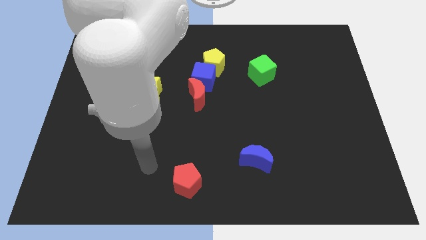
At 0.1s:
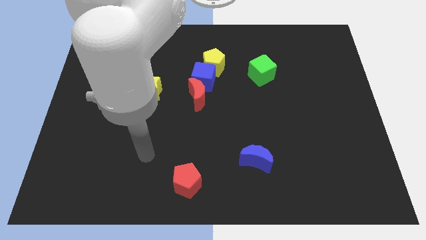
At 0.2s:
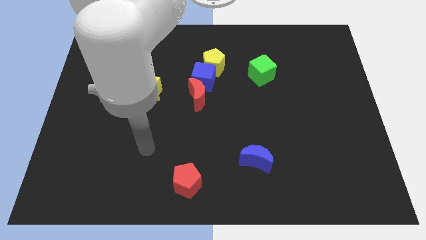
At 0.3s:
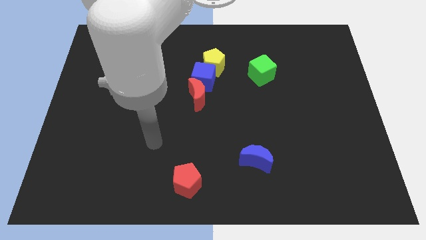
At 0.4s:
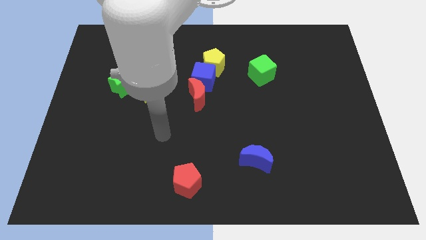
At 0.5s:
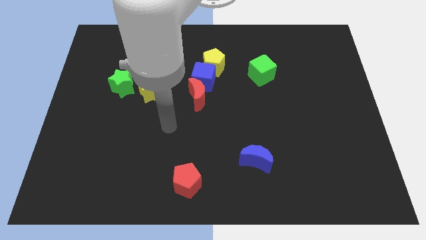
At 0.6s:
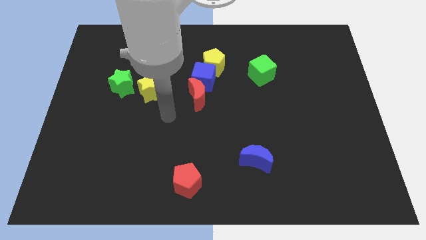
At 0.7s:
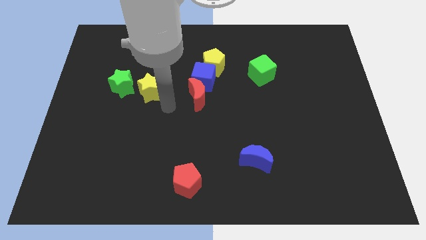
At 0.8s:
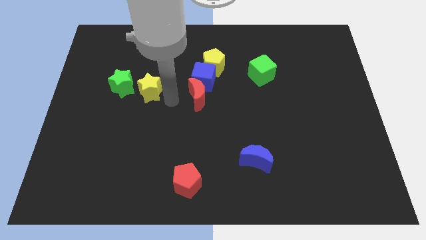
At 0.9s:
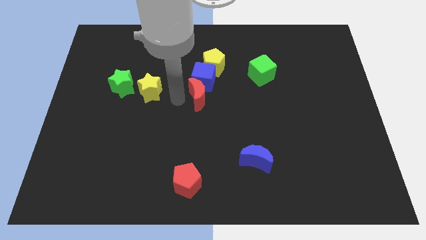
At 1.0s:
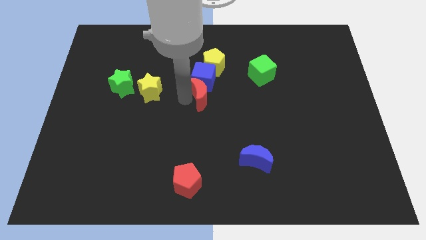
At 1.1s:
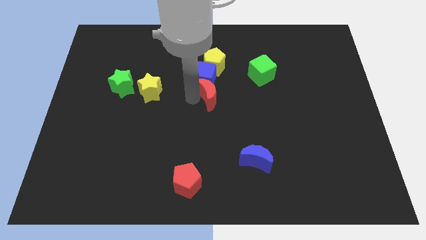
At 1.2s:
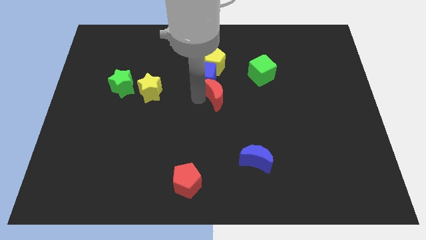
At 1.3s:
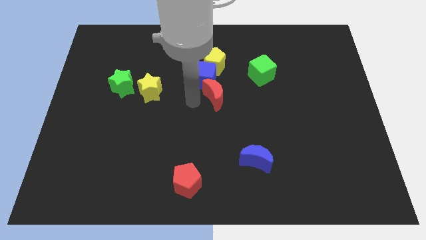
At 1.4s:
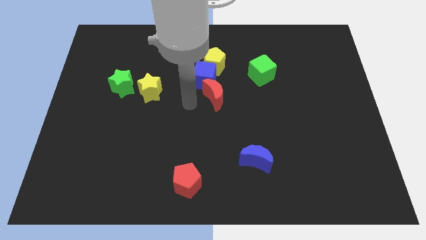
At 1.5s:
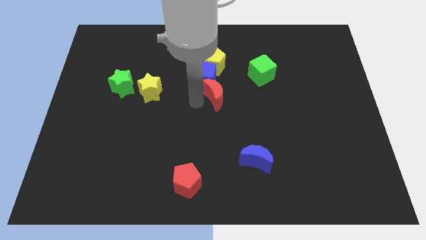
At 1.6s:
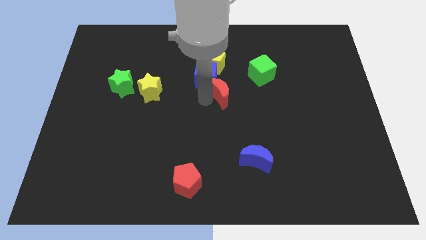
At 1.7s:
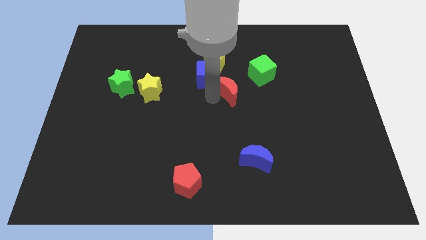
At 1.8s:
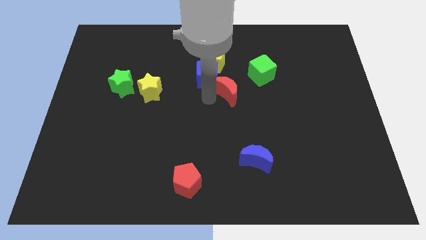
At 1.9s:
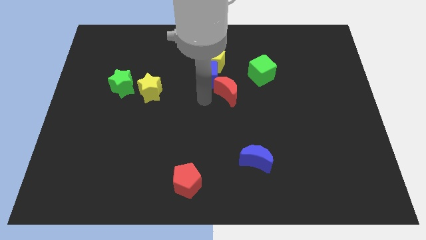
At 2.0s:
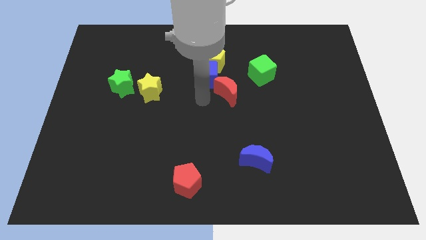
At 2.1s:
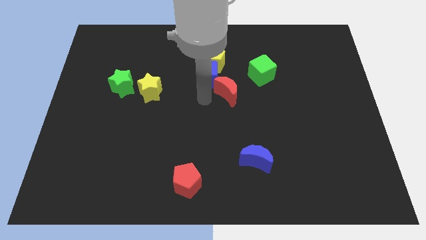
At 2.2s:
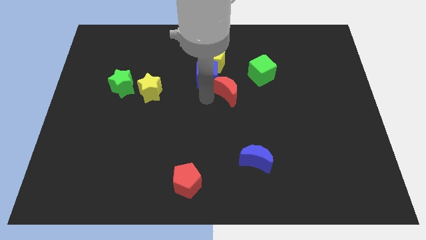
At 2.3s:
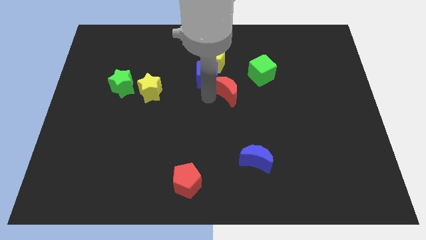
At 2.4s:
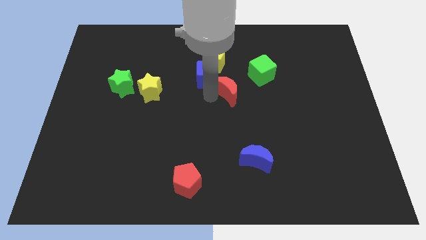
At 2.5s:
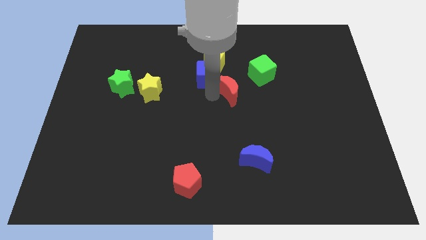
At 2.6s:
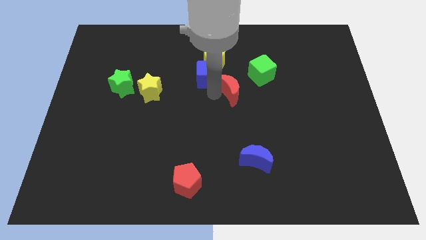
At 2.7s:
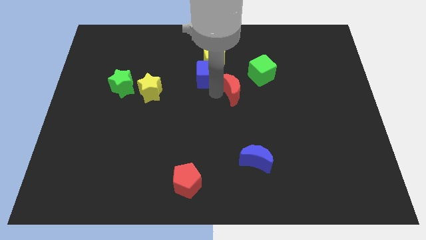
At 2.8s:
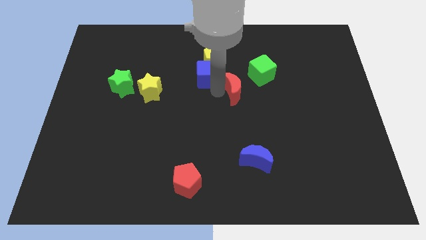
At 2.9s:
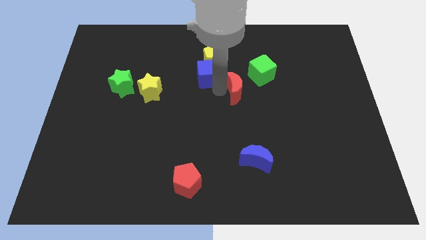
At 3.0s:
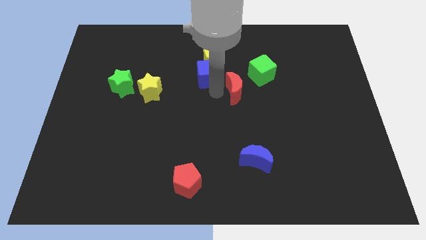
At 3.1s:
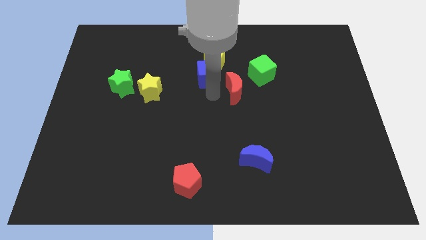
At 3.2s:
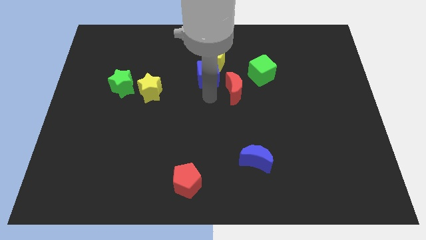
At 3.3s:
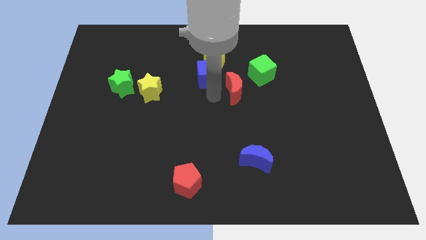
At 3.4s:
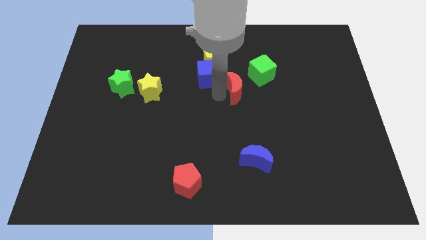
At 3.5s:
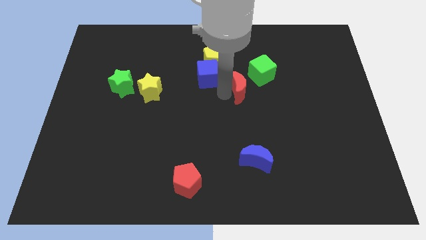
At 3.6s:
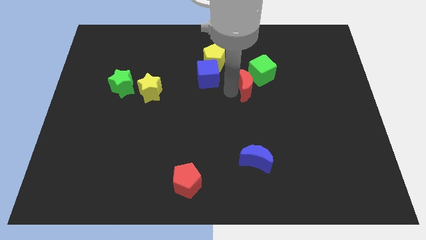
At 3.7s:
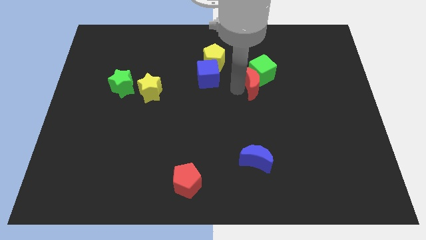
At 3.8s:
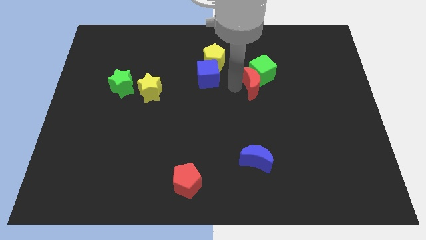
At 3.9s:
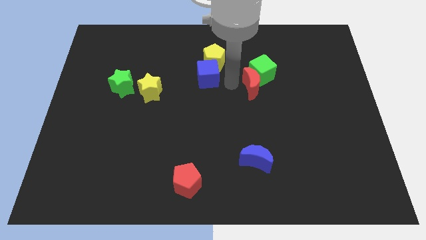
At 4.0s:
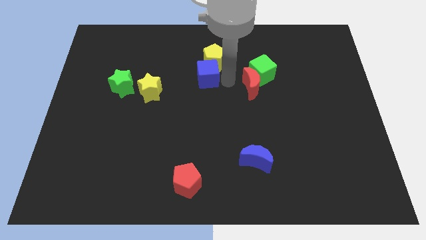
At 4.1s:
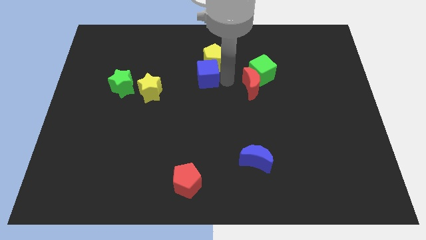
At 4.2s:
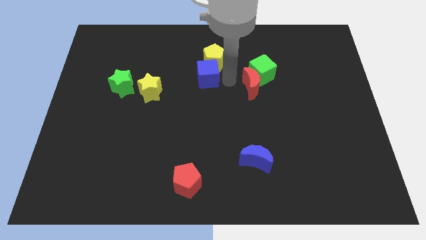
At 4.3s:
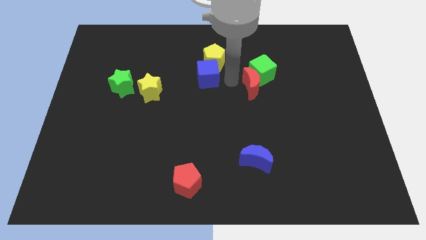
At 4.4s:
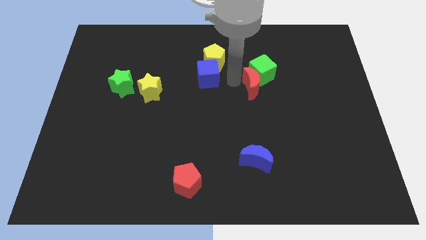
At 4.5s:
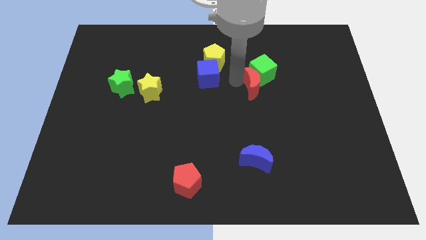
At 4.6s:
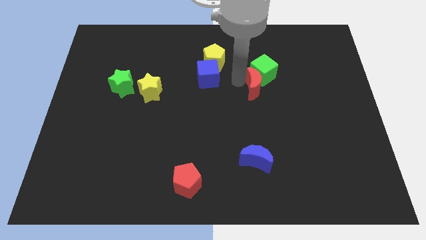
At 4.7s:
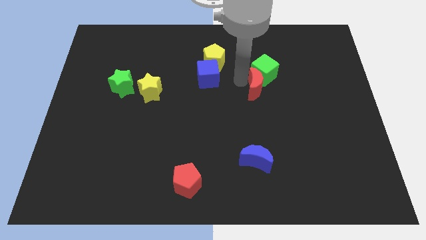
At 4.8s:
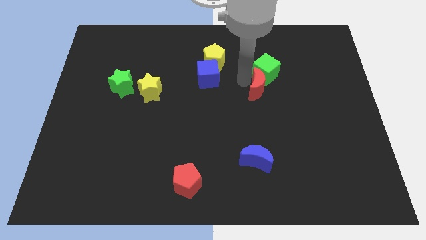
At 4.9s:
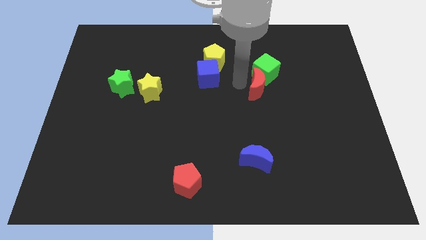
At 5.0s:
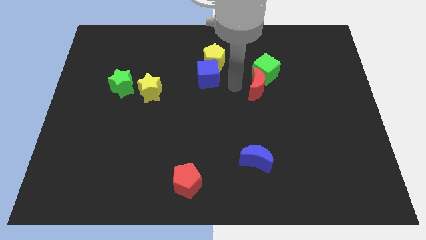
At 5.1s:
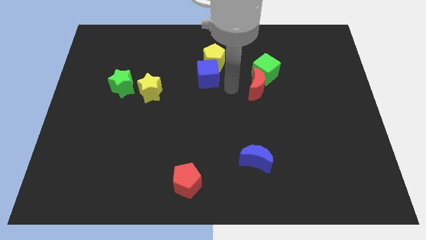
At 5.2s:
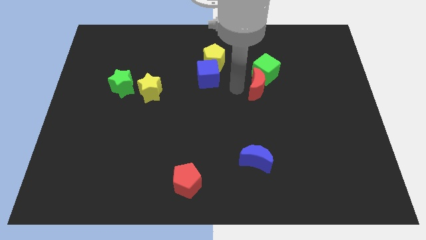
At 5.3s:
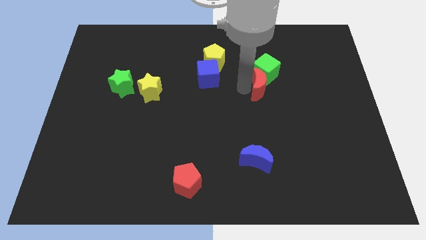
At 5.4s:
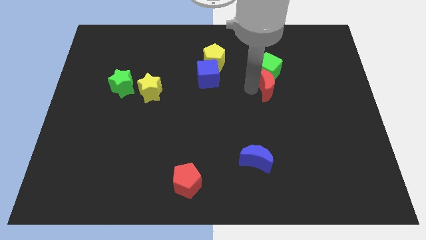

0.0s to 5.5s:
put the red moon diagonally down and to the right of the green cube

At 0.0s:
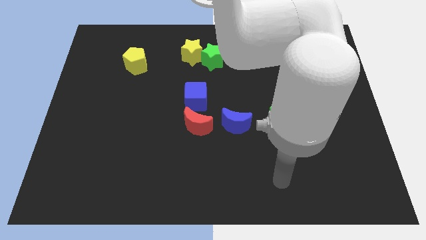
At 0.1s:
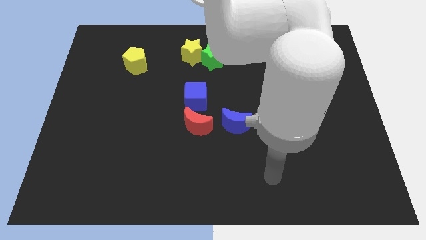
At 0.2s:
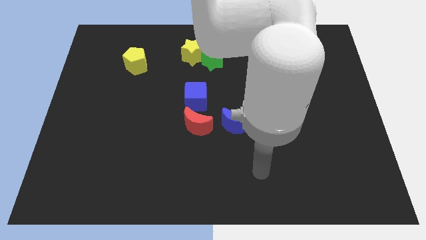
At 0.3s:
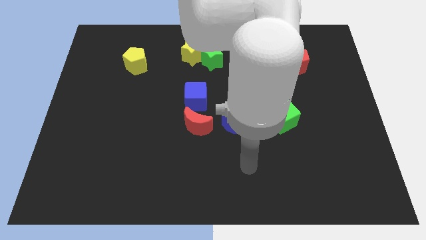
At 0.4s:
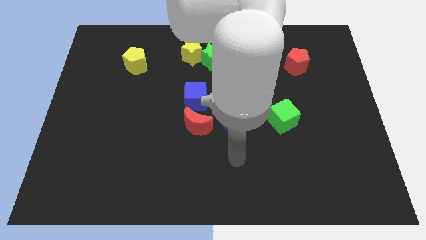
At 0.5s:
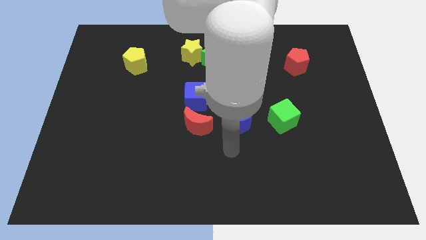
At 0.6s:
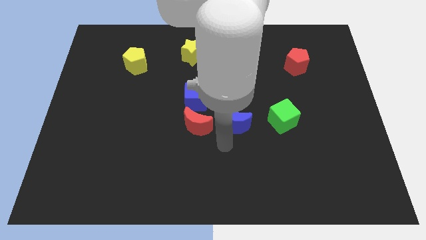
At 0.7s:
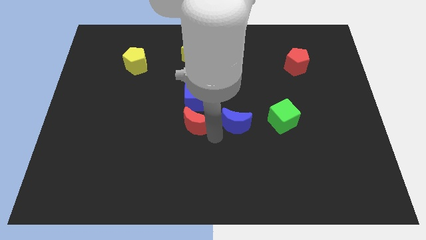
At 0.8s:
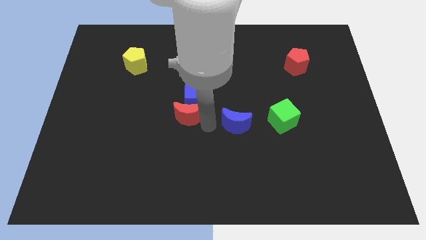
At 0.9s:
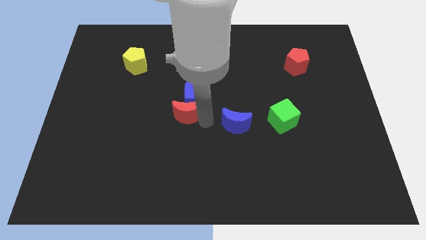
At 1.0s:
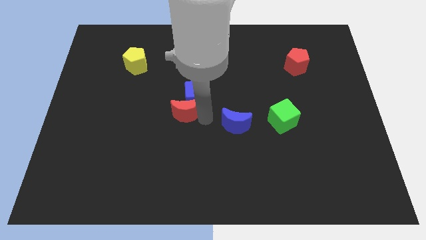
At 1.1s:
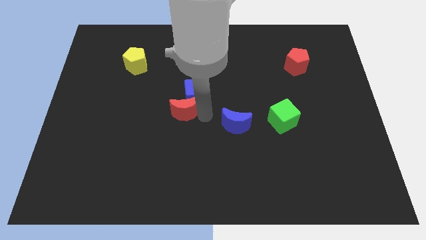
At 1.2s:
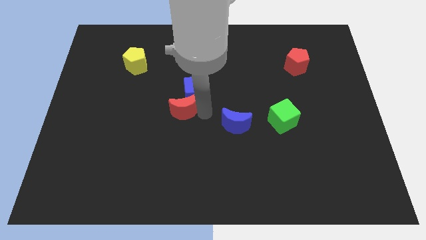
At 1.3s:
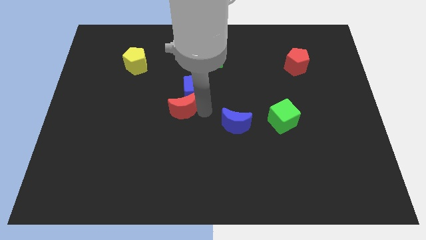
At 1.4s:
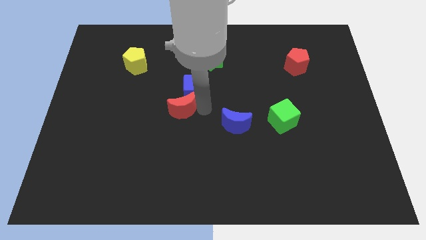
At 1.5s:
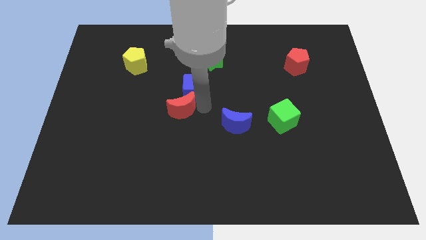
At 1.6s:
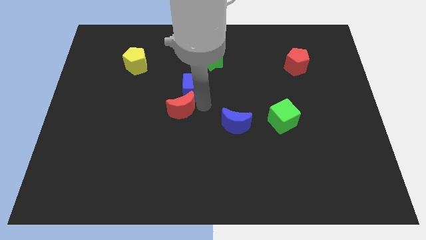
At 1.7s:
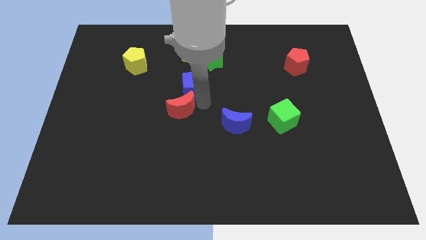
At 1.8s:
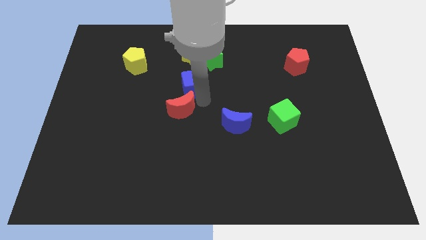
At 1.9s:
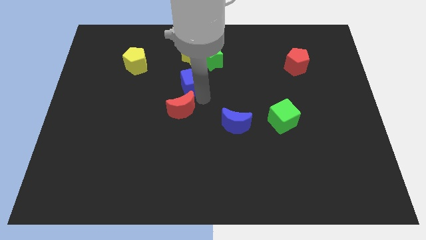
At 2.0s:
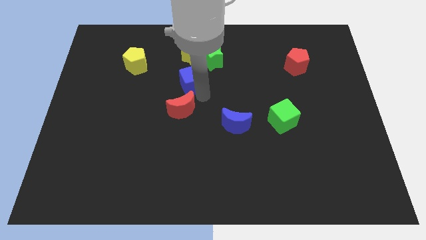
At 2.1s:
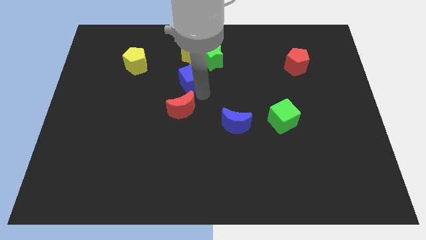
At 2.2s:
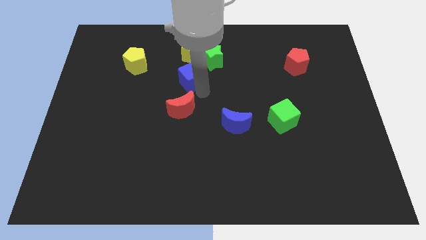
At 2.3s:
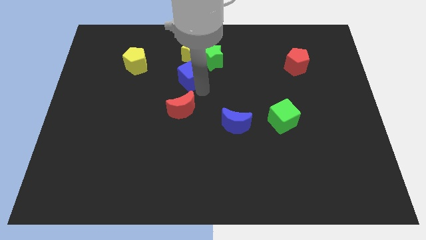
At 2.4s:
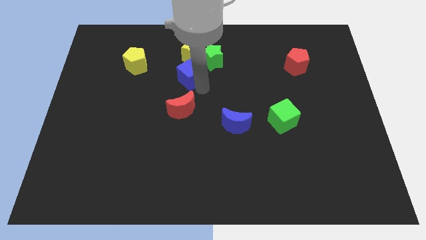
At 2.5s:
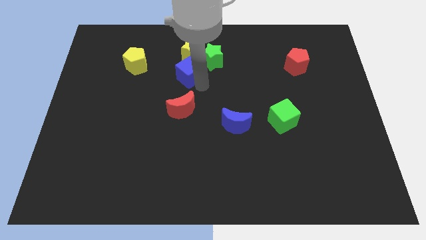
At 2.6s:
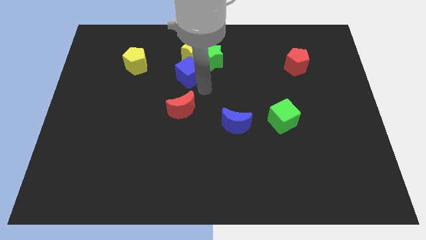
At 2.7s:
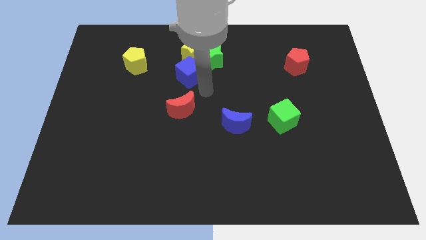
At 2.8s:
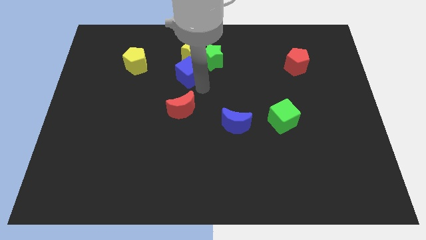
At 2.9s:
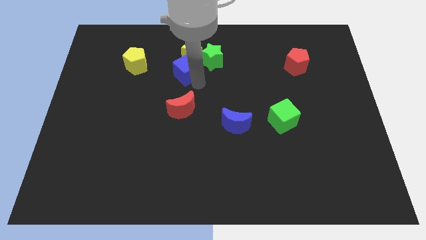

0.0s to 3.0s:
push the blue cube to the left of the green star
